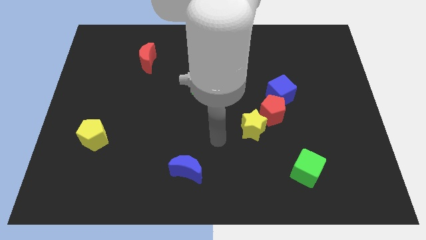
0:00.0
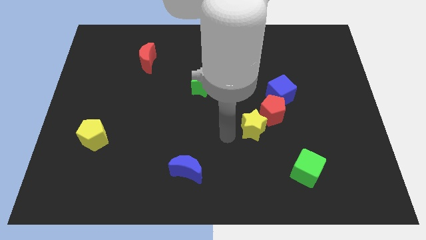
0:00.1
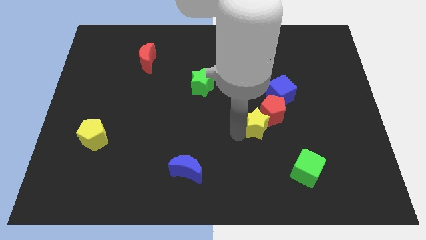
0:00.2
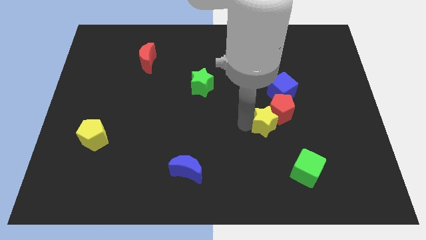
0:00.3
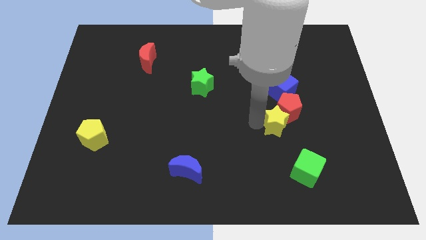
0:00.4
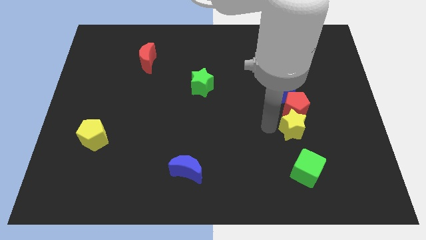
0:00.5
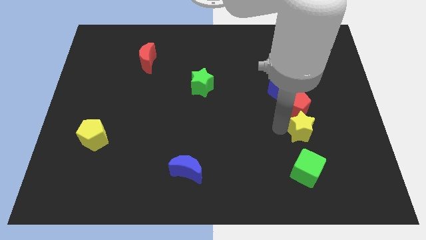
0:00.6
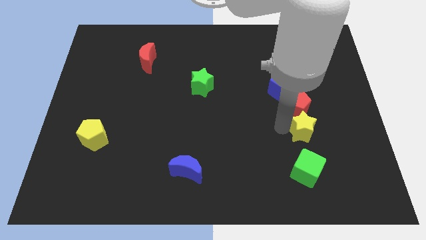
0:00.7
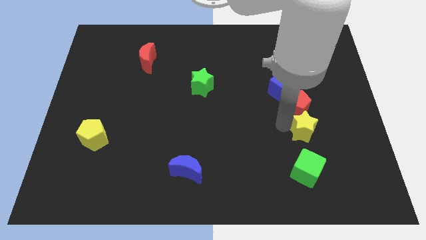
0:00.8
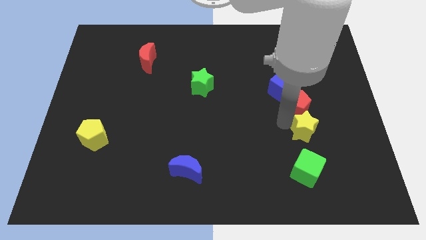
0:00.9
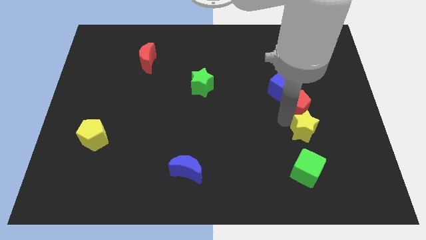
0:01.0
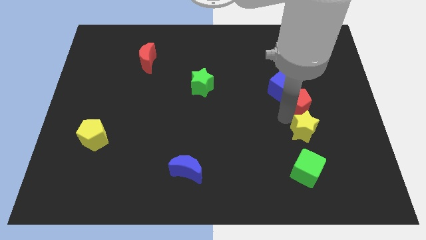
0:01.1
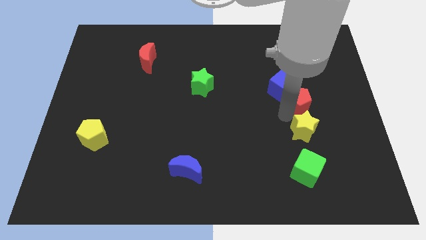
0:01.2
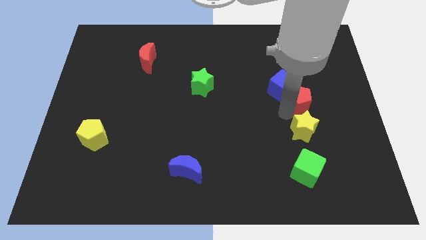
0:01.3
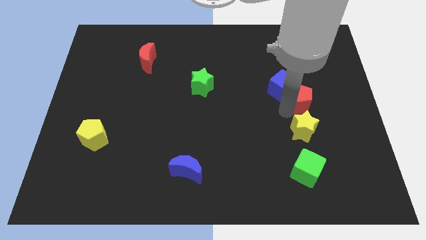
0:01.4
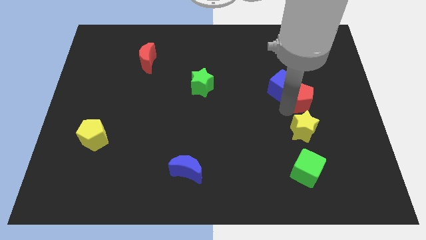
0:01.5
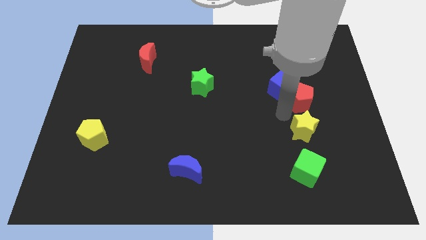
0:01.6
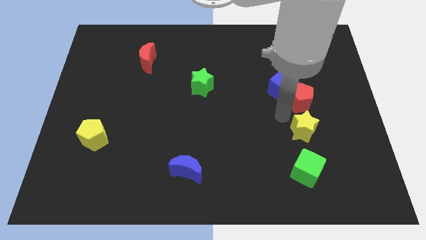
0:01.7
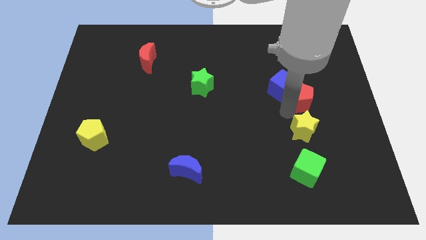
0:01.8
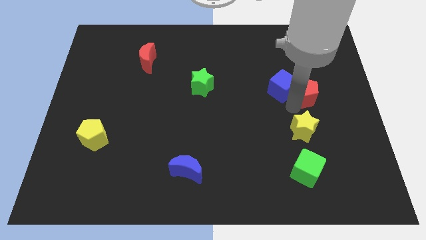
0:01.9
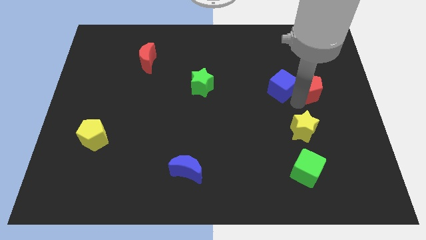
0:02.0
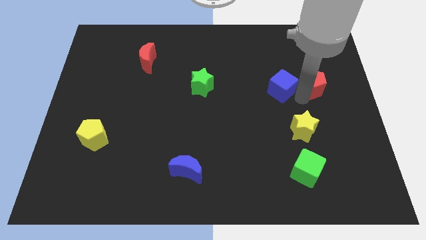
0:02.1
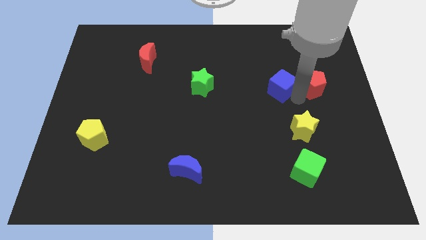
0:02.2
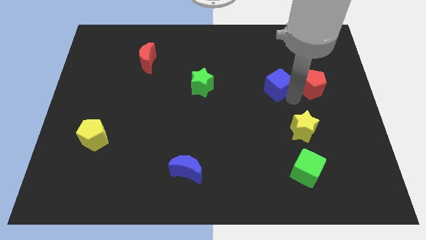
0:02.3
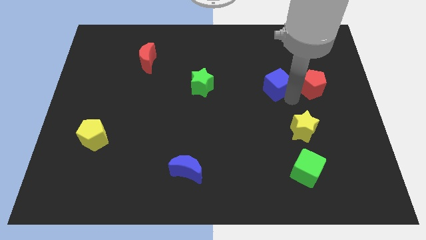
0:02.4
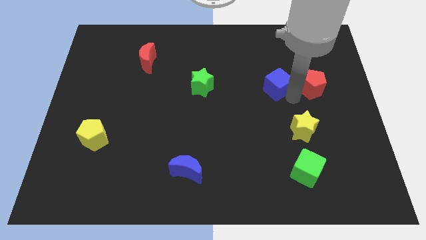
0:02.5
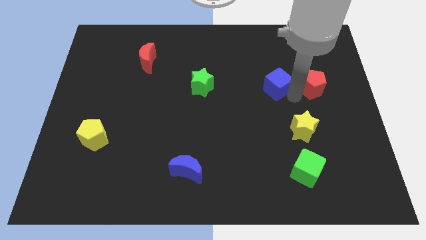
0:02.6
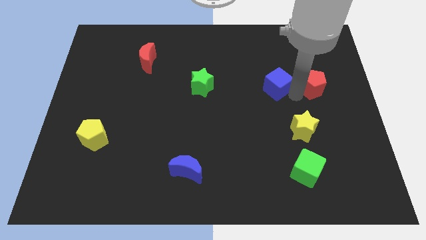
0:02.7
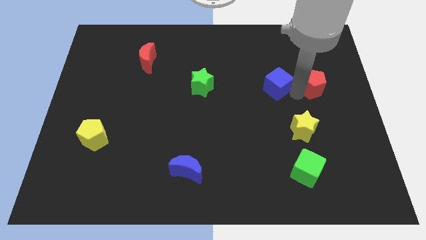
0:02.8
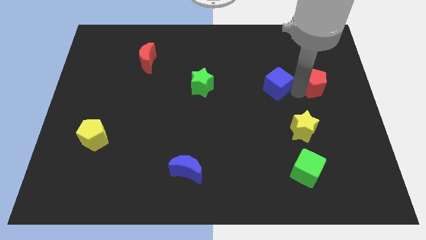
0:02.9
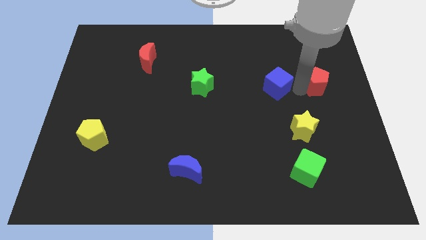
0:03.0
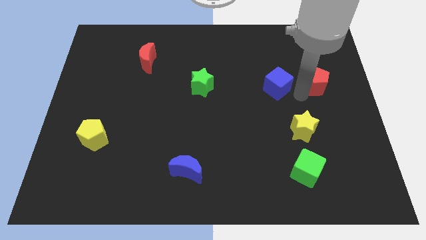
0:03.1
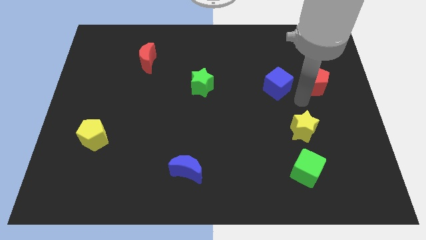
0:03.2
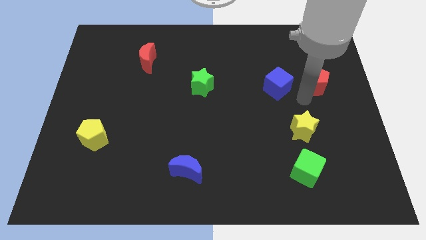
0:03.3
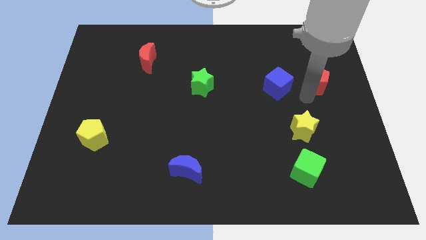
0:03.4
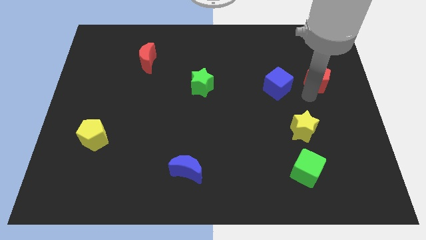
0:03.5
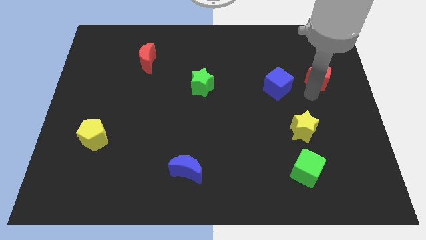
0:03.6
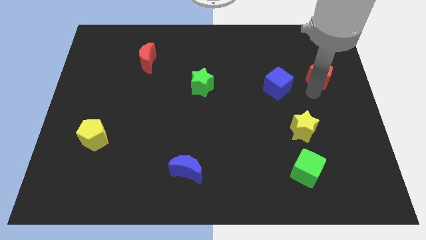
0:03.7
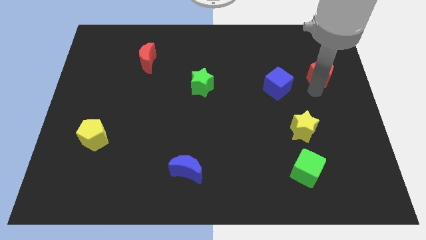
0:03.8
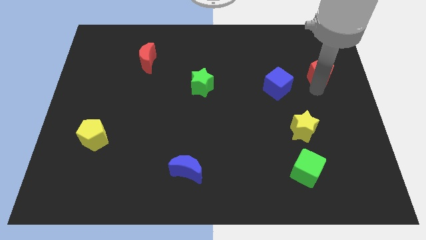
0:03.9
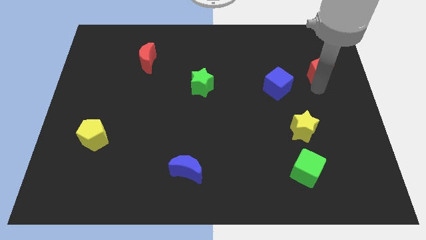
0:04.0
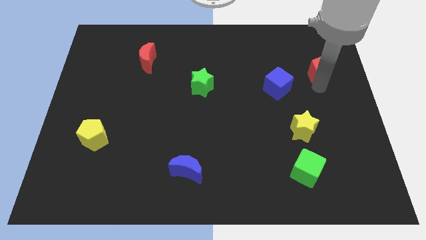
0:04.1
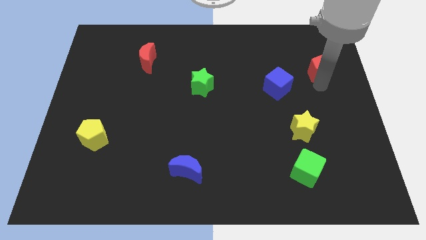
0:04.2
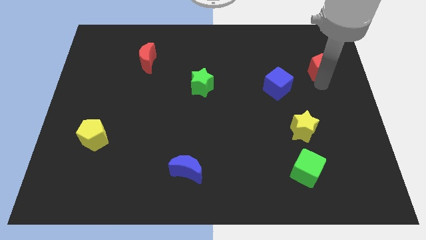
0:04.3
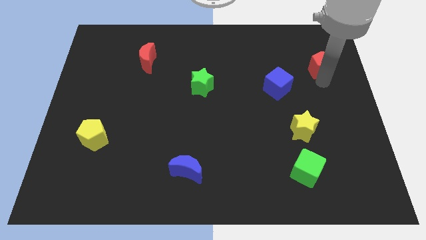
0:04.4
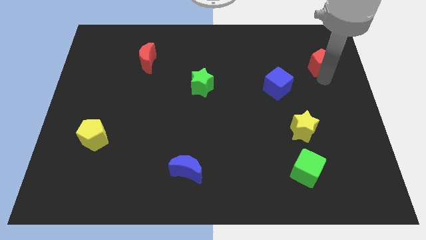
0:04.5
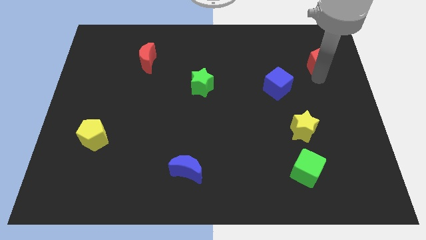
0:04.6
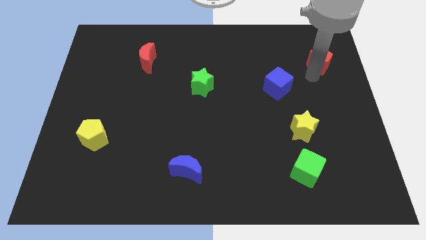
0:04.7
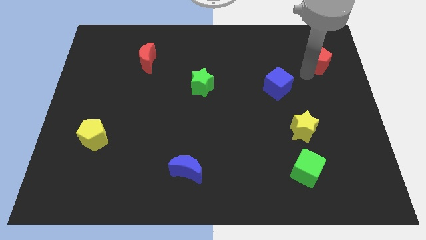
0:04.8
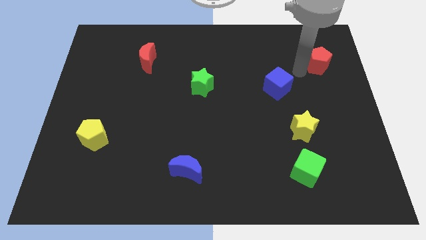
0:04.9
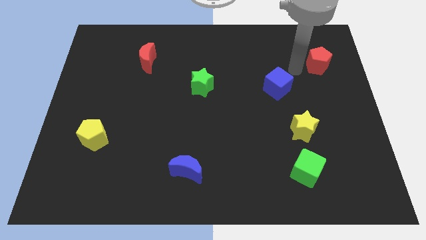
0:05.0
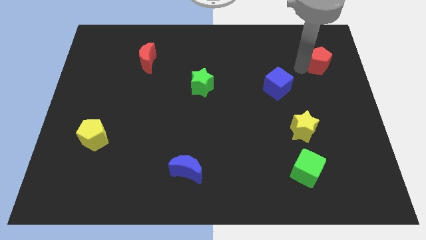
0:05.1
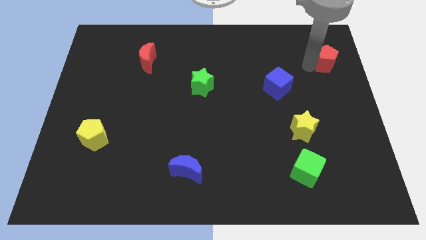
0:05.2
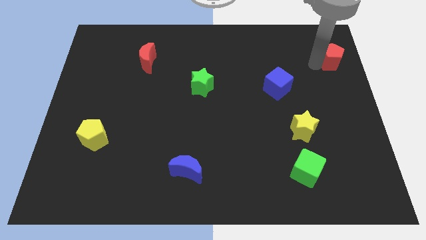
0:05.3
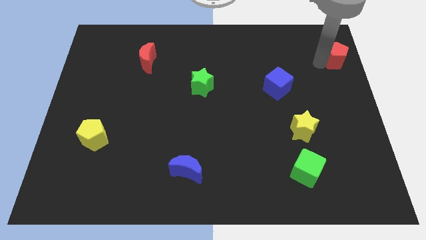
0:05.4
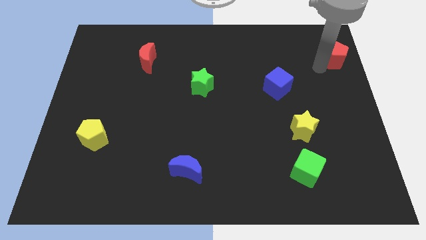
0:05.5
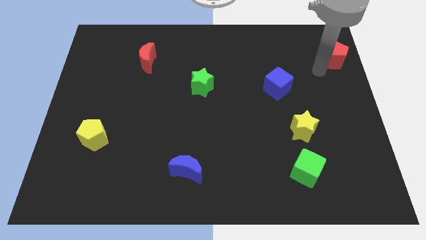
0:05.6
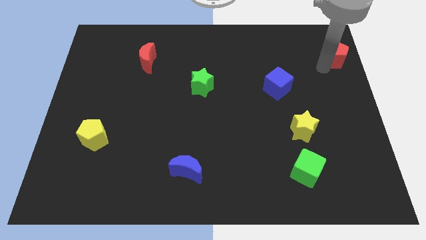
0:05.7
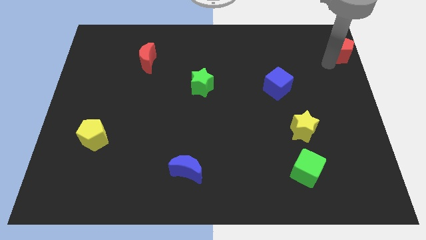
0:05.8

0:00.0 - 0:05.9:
push the red pentagon to the top right corner

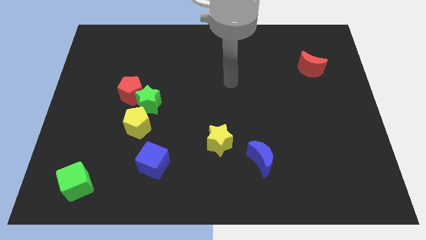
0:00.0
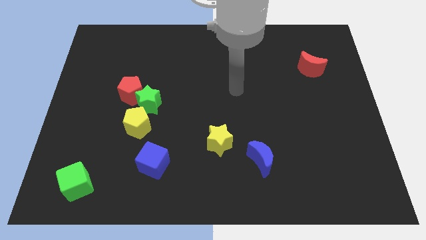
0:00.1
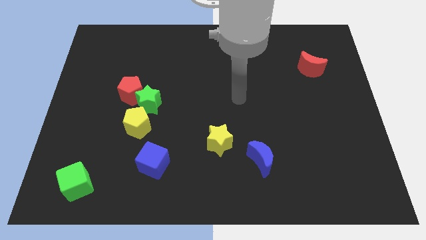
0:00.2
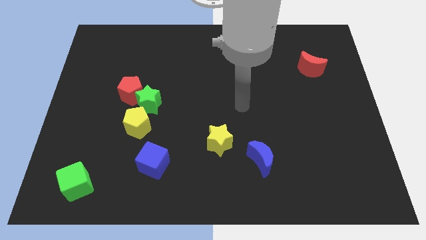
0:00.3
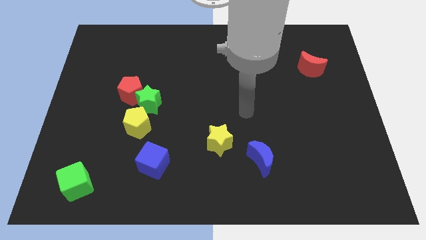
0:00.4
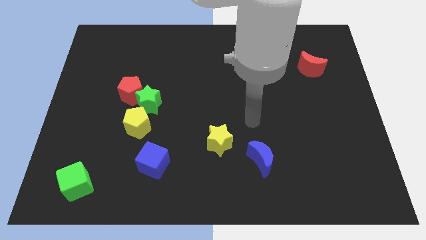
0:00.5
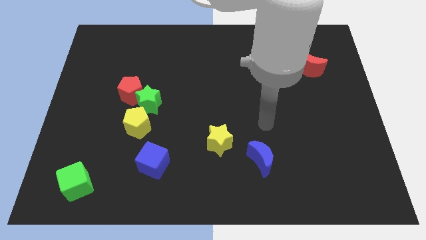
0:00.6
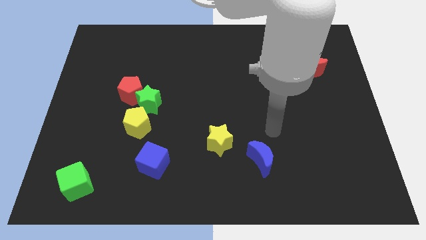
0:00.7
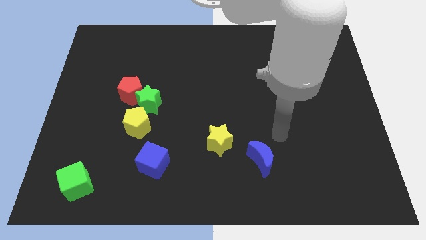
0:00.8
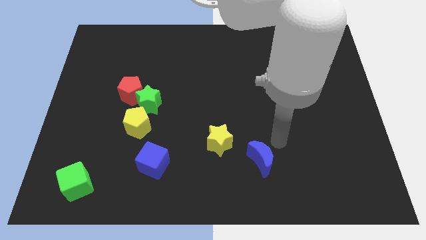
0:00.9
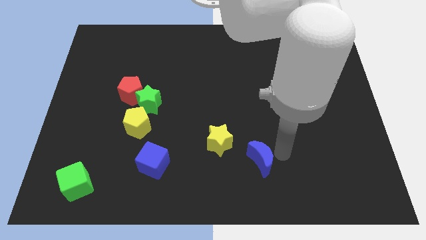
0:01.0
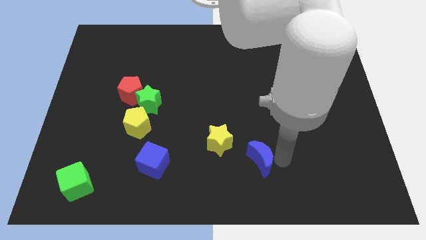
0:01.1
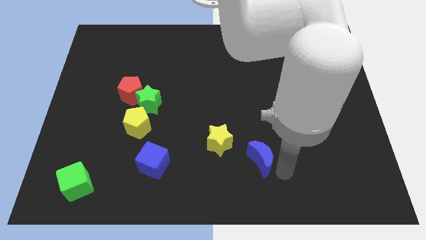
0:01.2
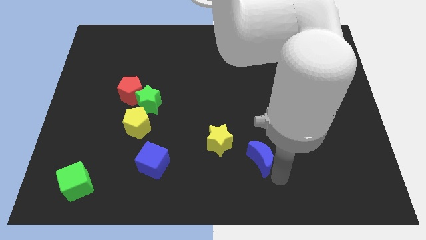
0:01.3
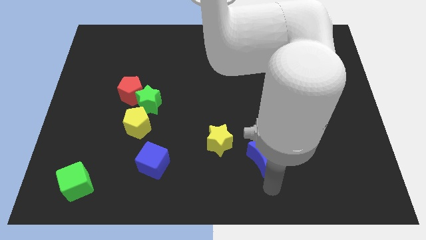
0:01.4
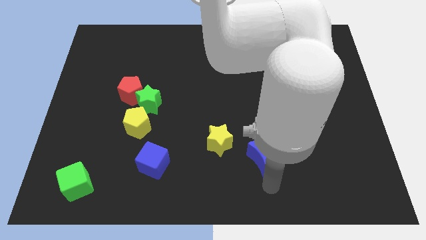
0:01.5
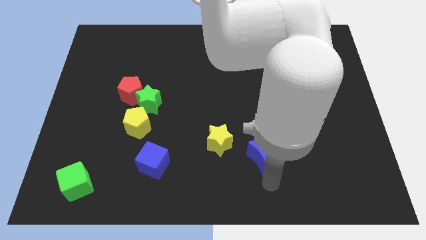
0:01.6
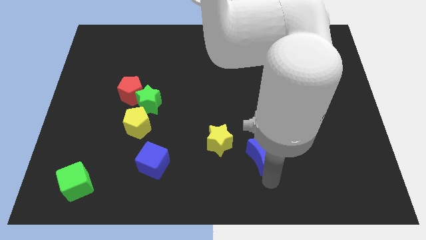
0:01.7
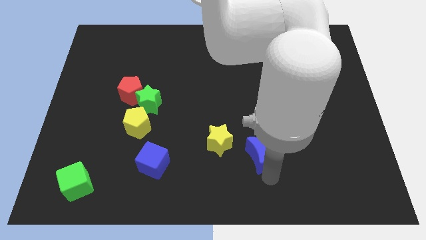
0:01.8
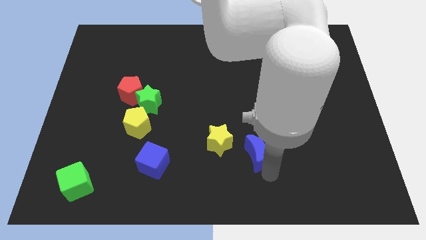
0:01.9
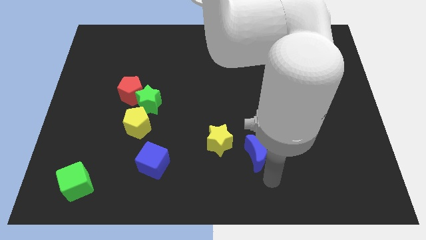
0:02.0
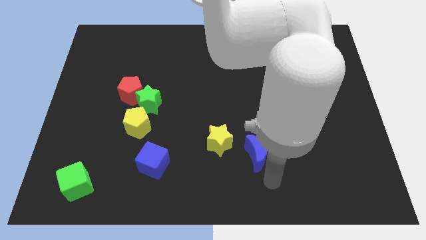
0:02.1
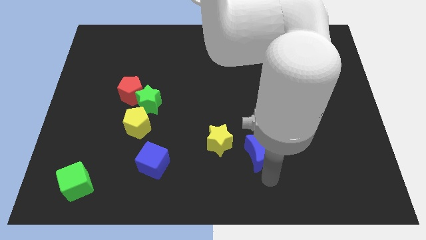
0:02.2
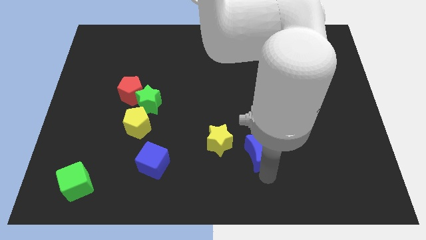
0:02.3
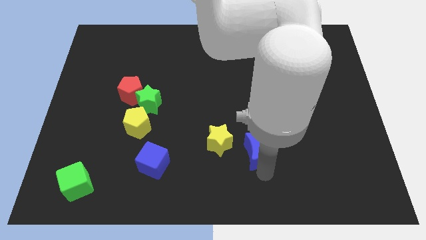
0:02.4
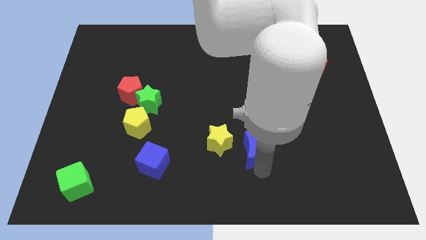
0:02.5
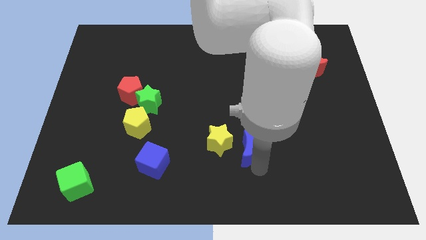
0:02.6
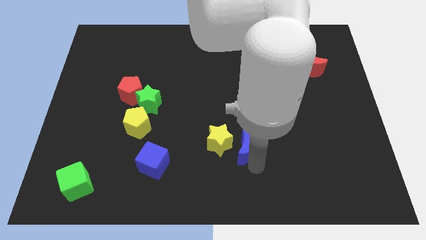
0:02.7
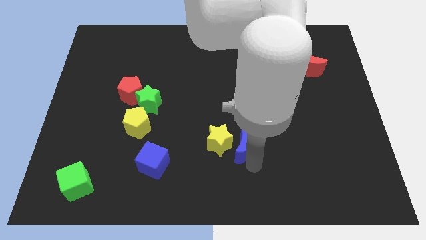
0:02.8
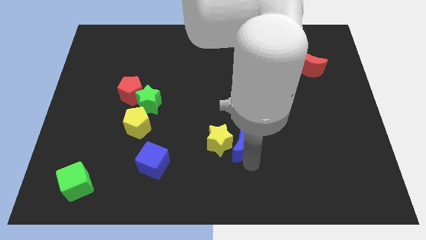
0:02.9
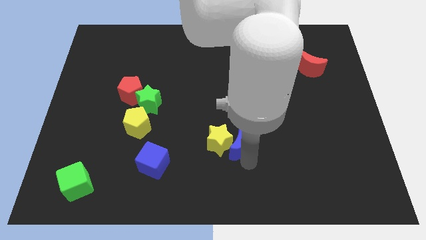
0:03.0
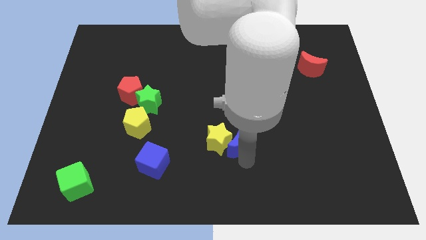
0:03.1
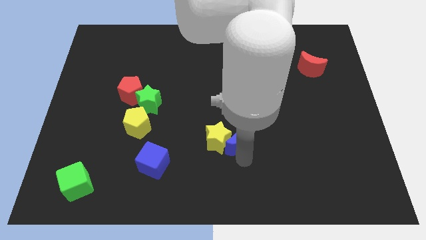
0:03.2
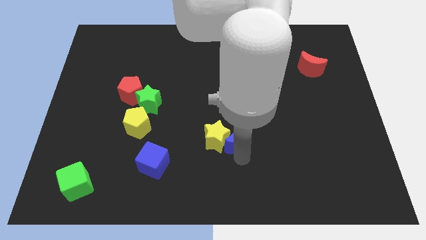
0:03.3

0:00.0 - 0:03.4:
move the blue moon to the center of the board
